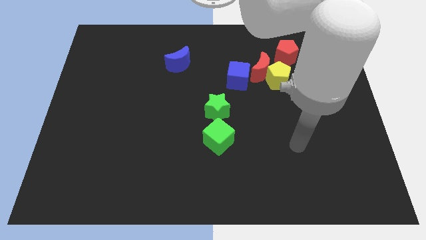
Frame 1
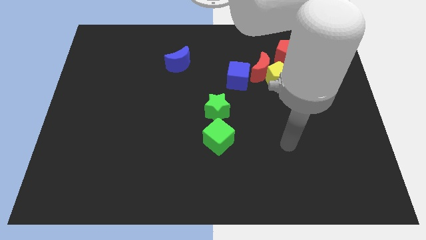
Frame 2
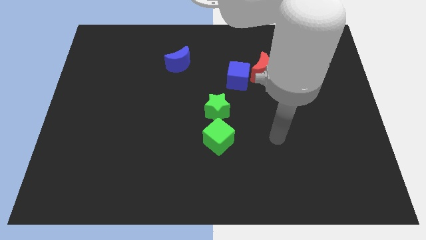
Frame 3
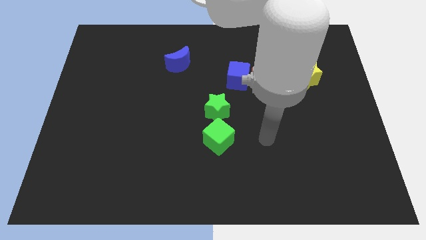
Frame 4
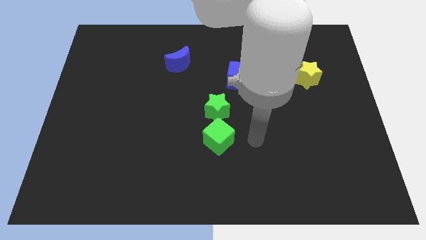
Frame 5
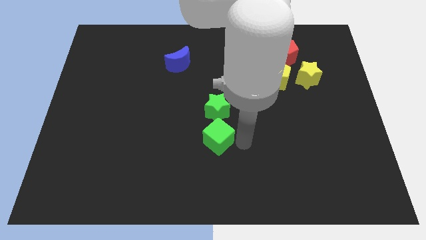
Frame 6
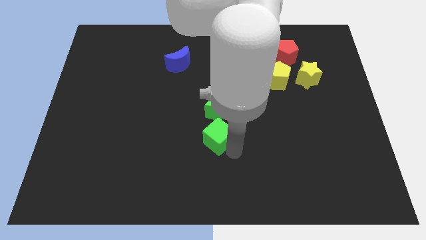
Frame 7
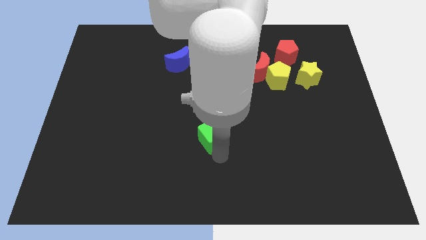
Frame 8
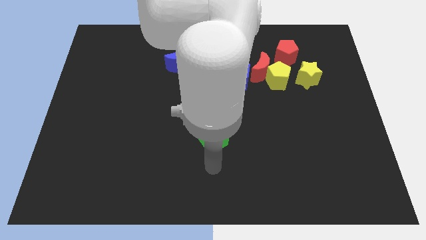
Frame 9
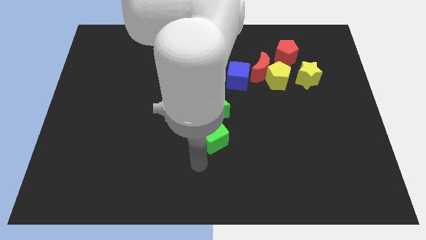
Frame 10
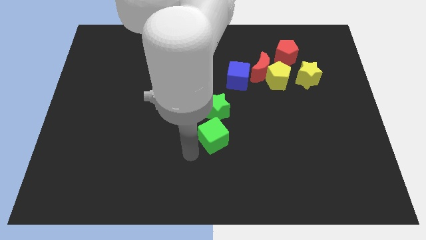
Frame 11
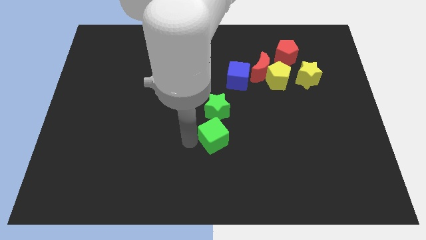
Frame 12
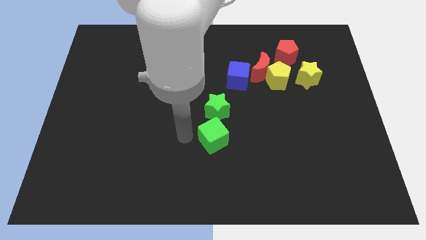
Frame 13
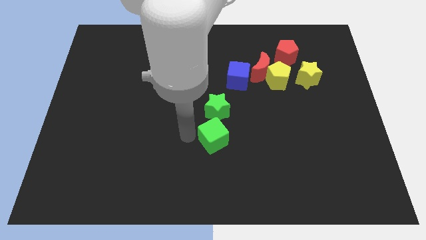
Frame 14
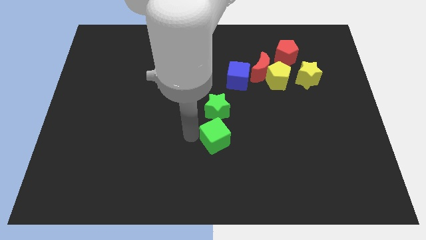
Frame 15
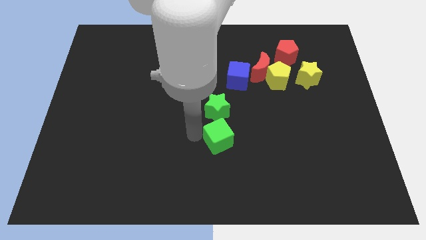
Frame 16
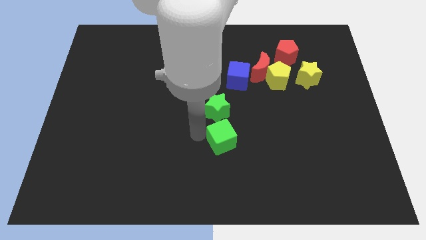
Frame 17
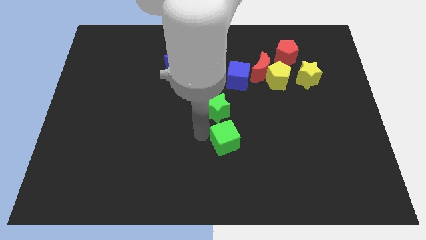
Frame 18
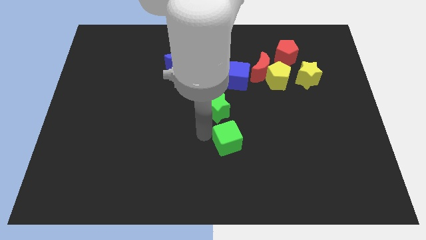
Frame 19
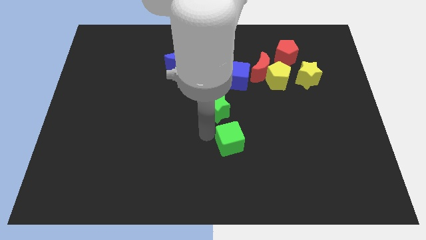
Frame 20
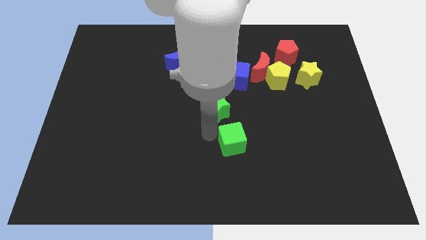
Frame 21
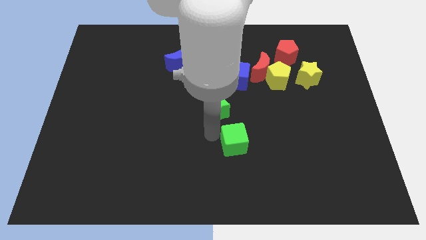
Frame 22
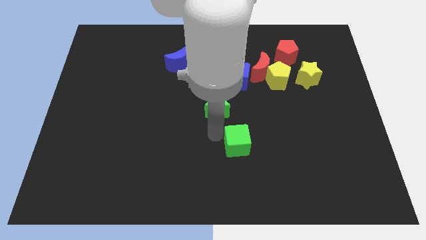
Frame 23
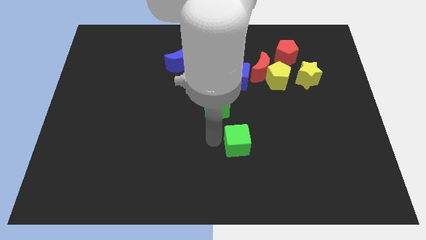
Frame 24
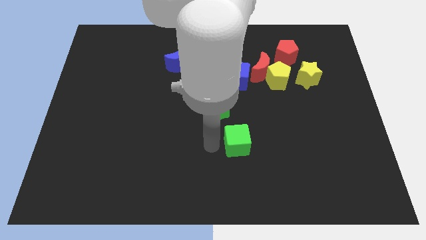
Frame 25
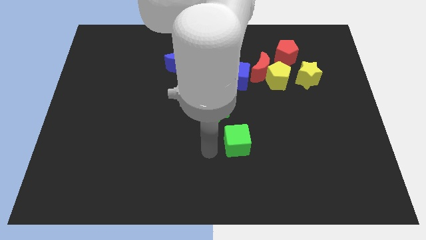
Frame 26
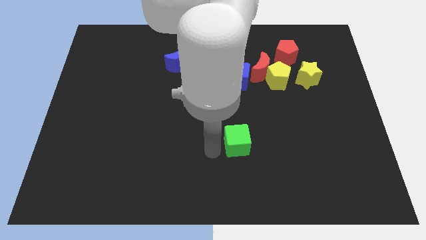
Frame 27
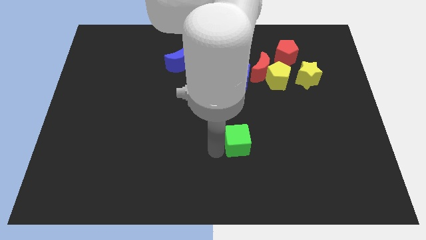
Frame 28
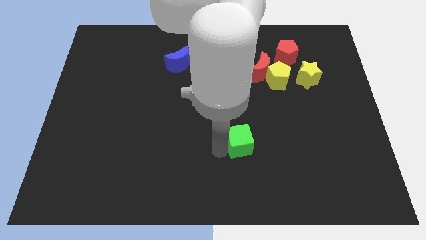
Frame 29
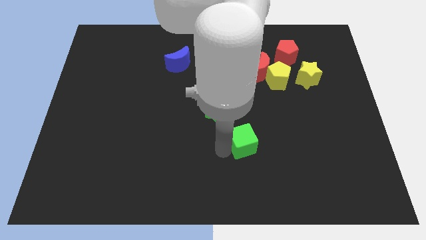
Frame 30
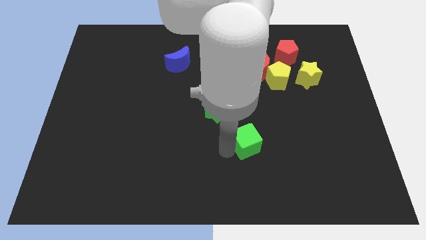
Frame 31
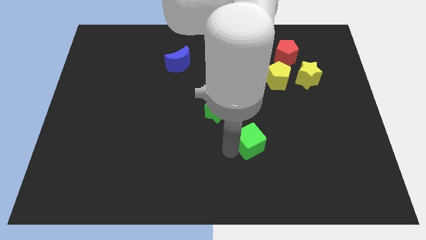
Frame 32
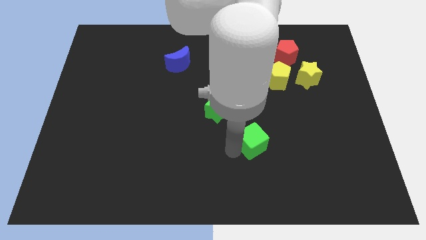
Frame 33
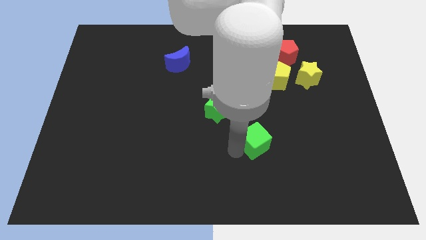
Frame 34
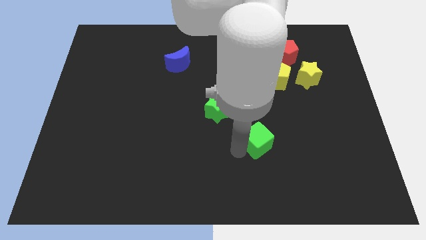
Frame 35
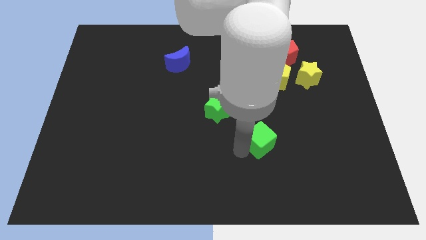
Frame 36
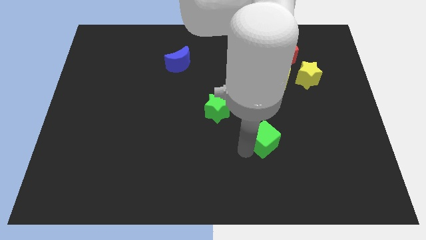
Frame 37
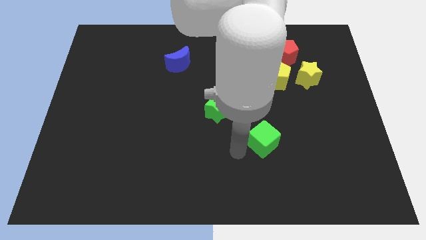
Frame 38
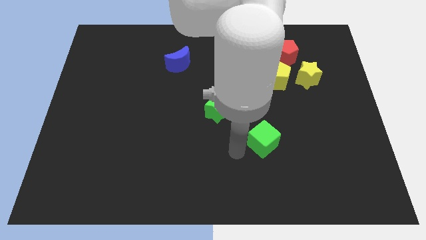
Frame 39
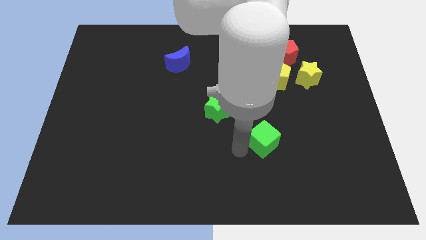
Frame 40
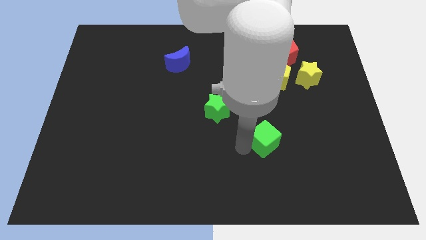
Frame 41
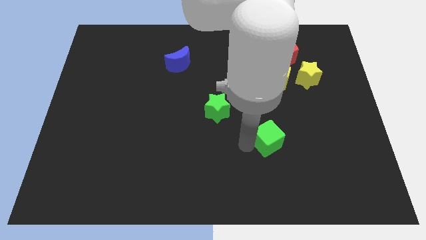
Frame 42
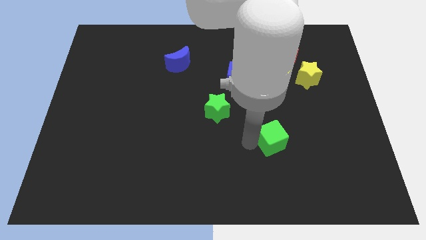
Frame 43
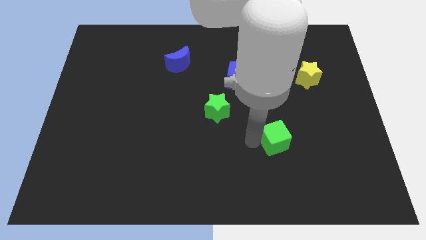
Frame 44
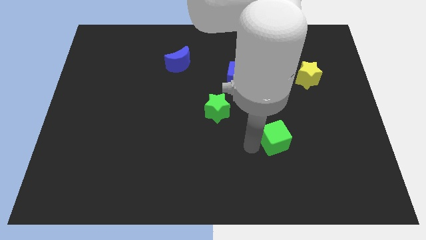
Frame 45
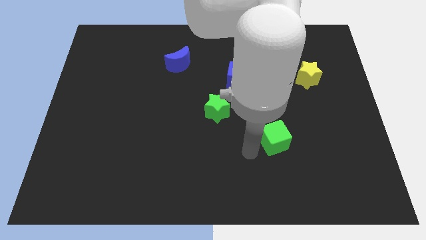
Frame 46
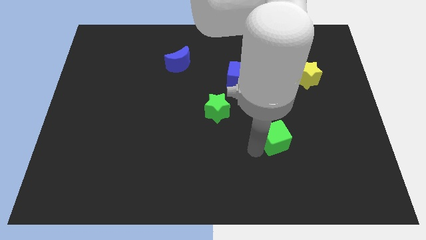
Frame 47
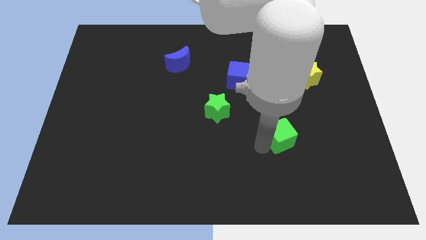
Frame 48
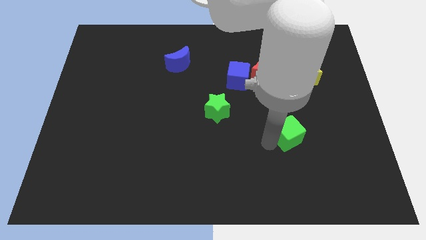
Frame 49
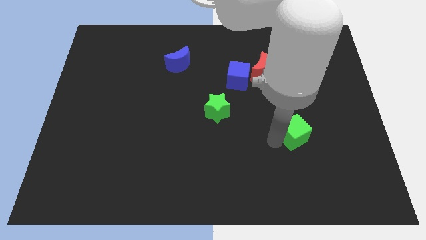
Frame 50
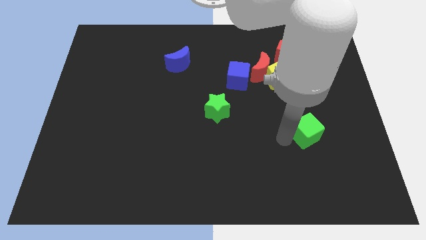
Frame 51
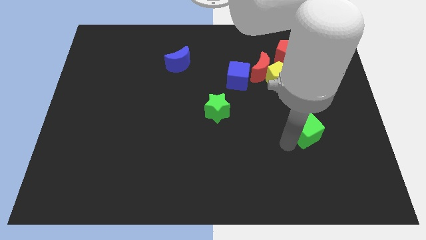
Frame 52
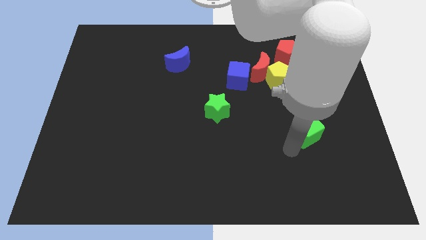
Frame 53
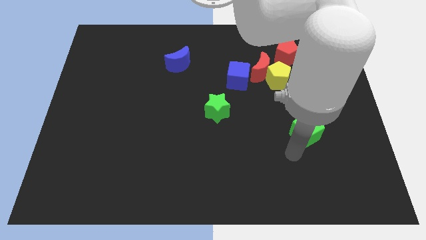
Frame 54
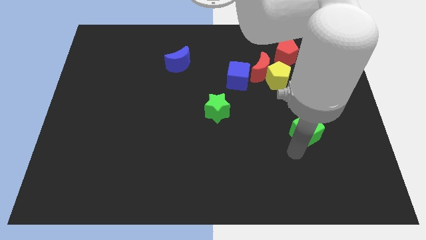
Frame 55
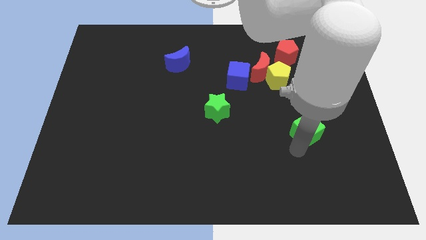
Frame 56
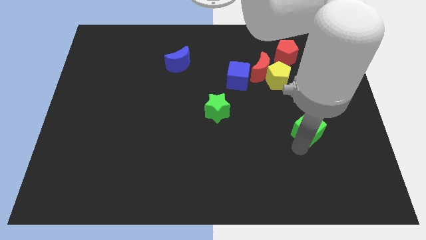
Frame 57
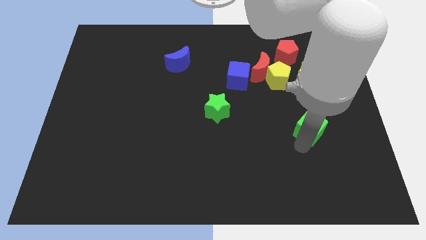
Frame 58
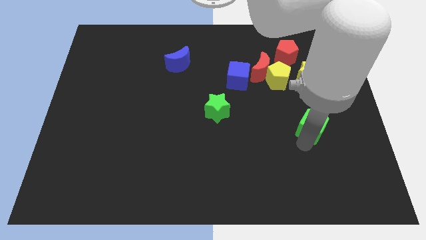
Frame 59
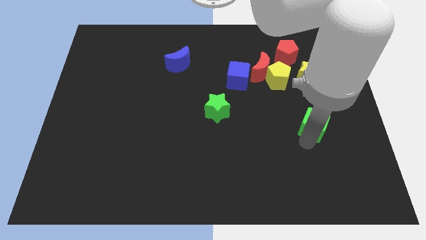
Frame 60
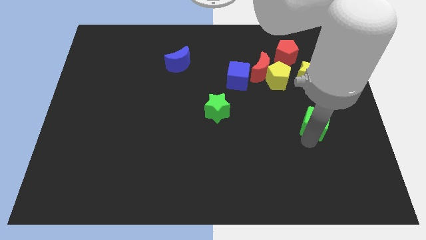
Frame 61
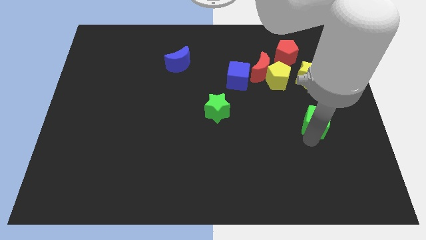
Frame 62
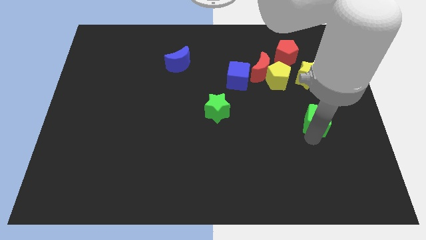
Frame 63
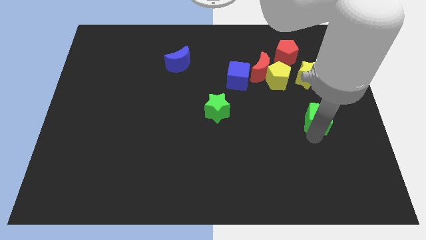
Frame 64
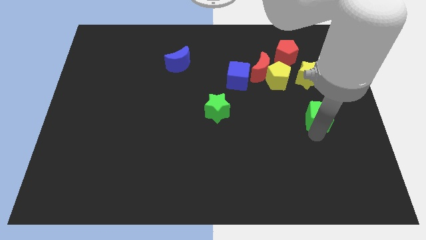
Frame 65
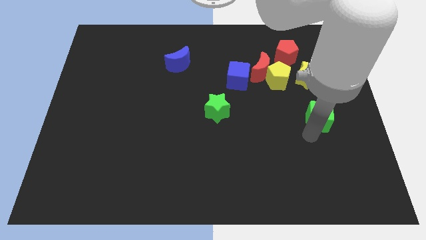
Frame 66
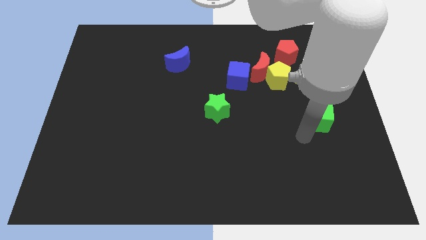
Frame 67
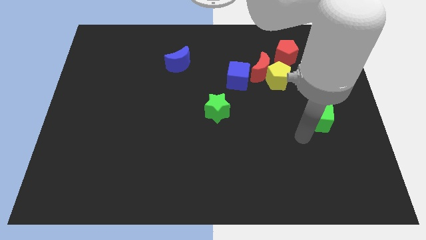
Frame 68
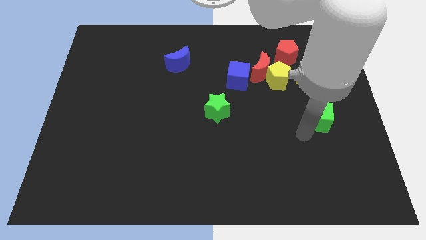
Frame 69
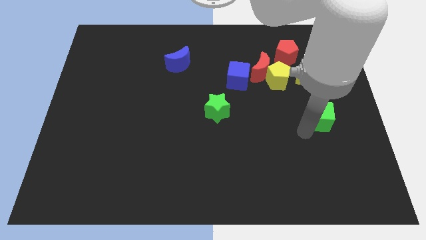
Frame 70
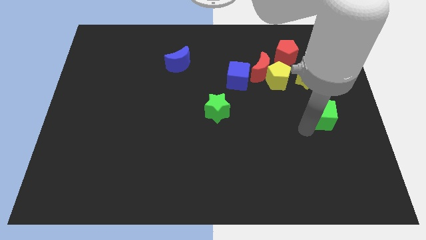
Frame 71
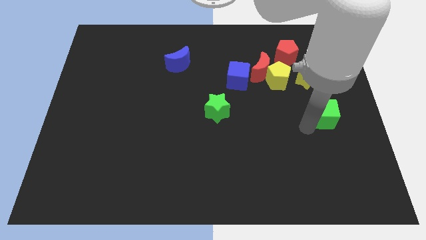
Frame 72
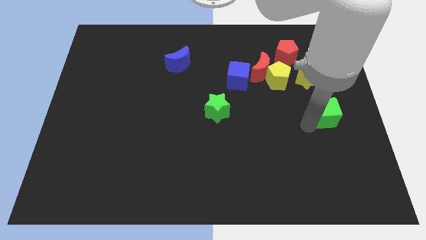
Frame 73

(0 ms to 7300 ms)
slide the green cube to the right side
